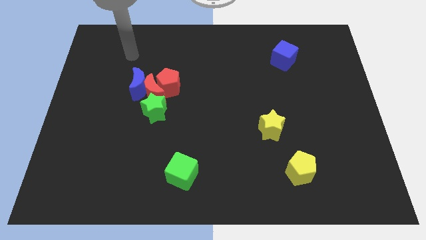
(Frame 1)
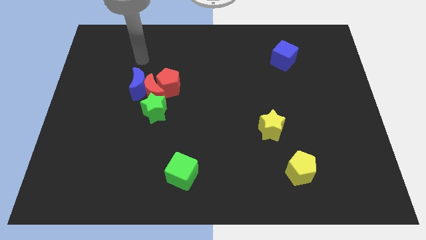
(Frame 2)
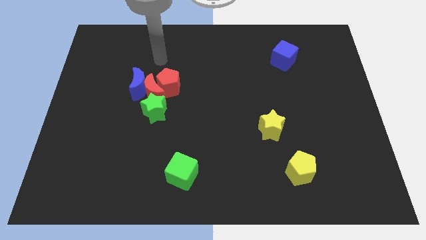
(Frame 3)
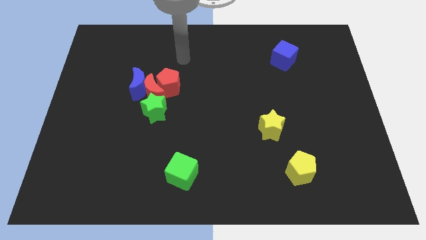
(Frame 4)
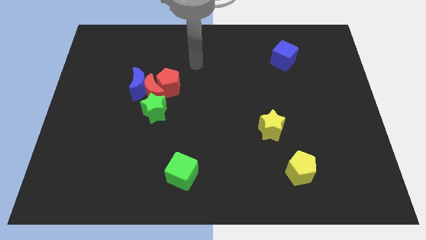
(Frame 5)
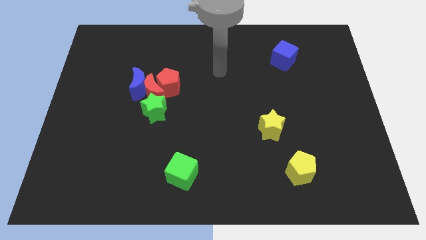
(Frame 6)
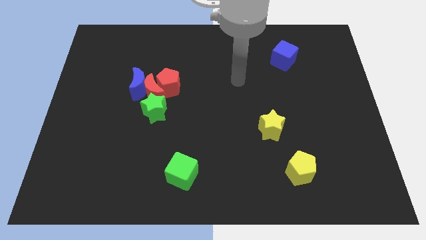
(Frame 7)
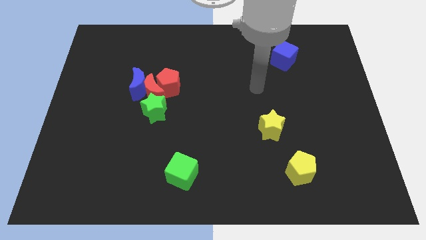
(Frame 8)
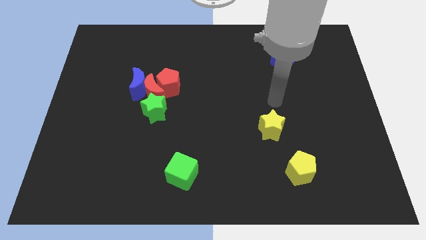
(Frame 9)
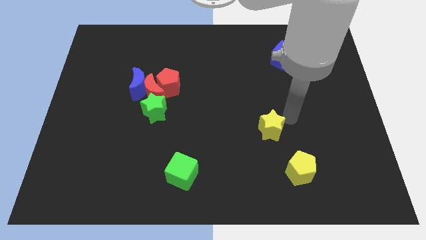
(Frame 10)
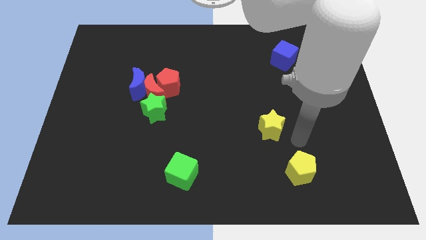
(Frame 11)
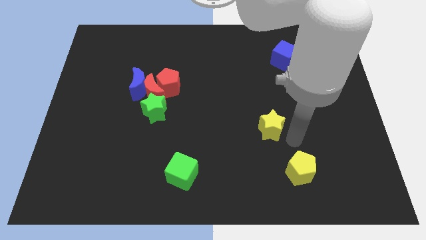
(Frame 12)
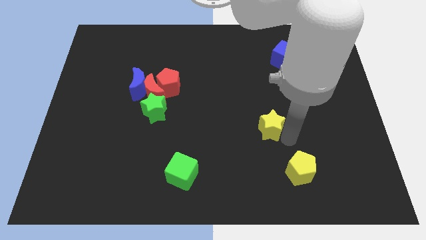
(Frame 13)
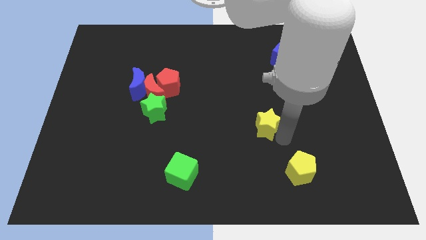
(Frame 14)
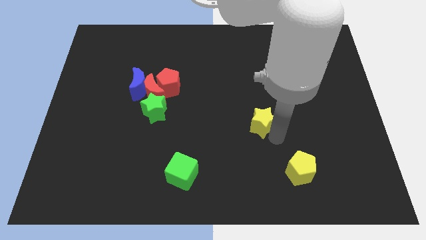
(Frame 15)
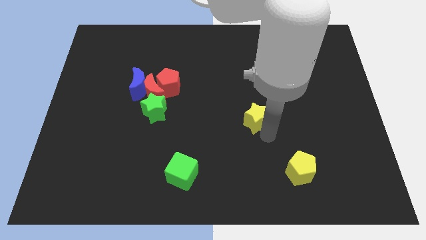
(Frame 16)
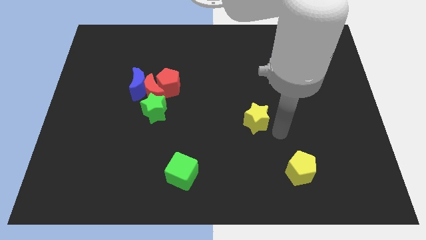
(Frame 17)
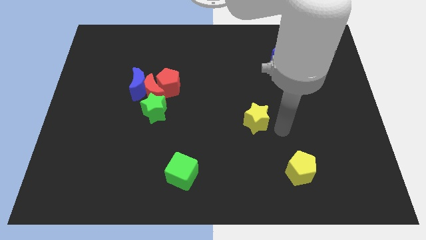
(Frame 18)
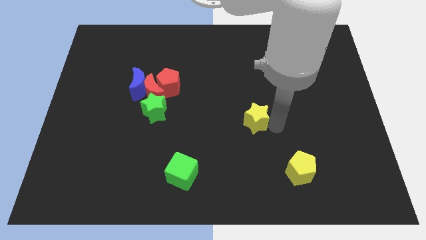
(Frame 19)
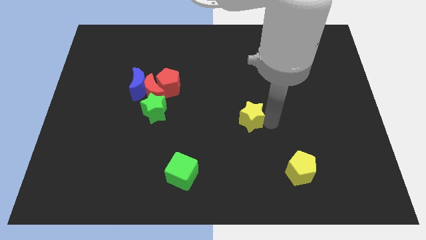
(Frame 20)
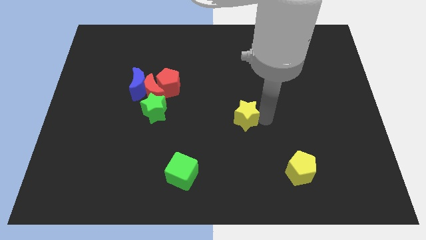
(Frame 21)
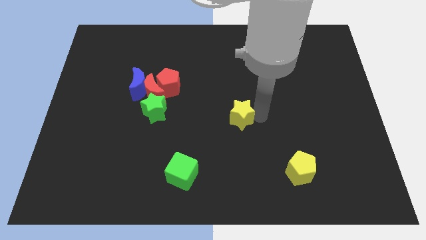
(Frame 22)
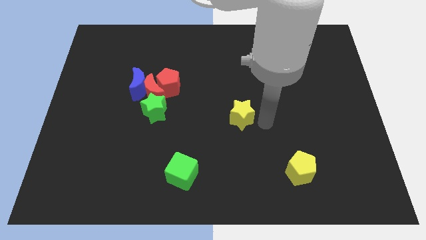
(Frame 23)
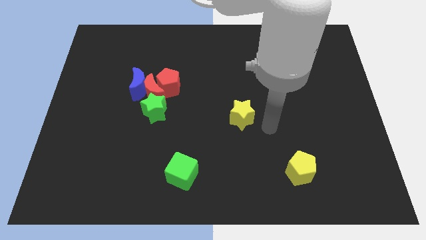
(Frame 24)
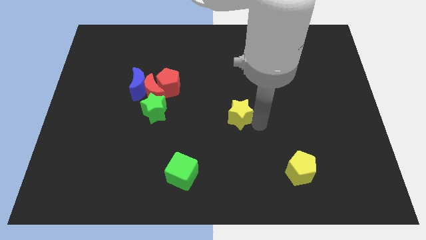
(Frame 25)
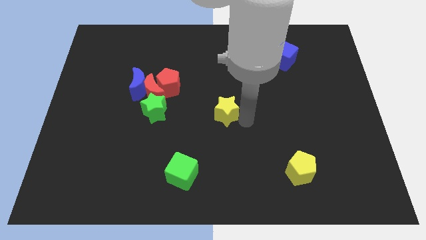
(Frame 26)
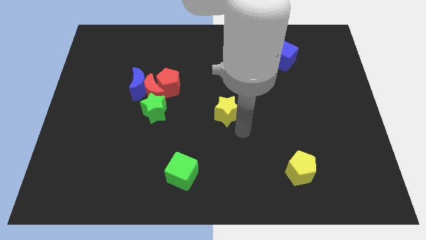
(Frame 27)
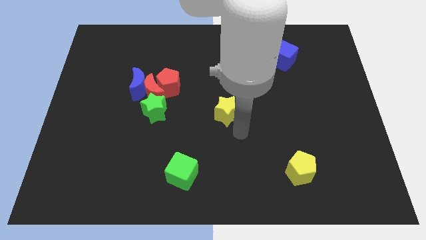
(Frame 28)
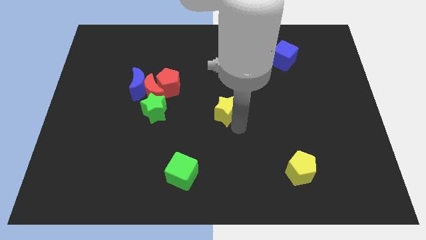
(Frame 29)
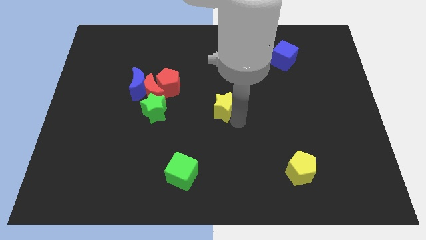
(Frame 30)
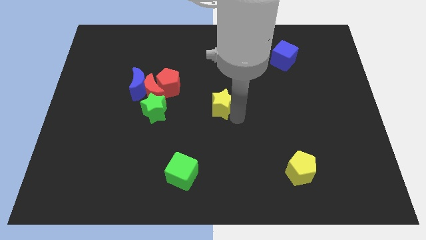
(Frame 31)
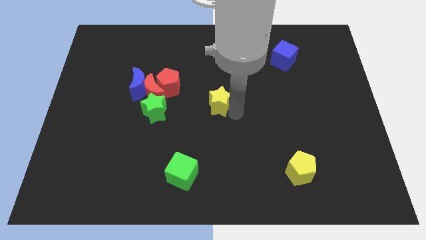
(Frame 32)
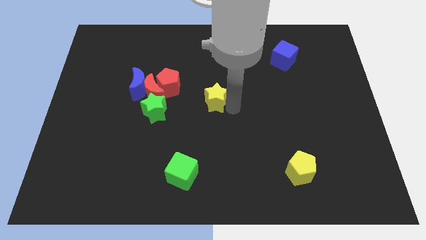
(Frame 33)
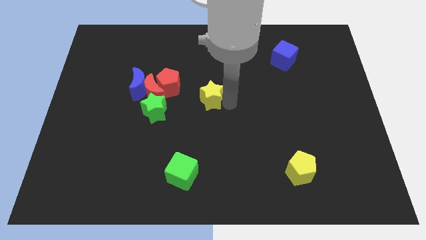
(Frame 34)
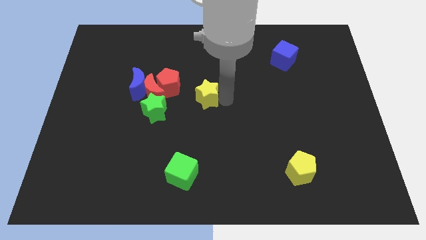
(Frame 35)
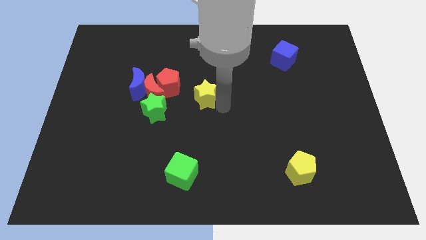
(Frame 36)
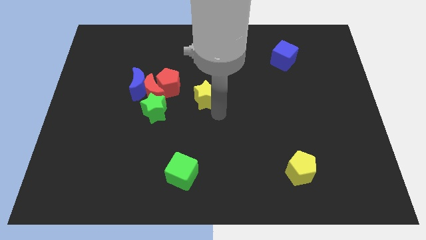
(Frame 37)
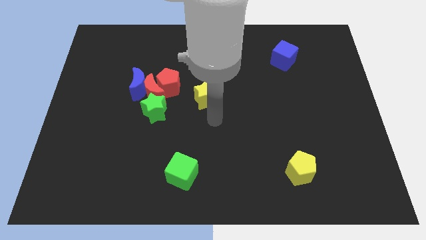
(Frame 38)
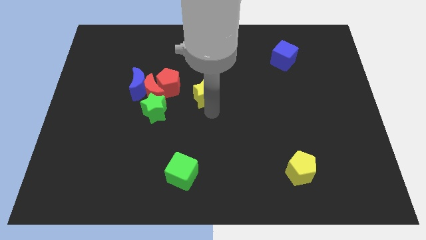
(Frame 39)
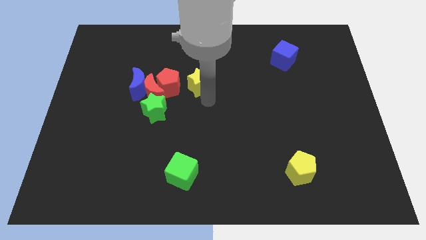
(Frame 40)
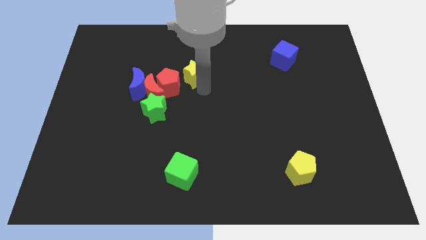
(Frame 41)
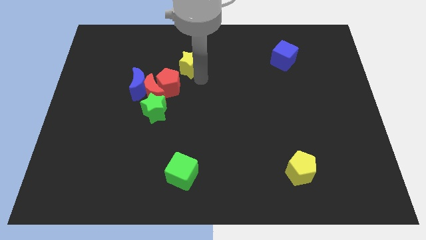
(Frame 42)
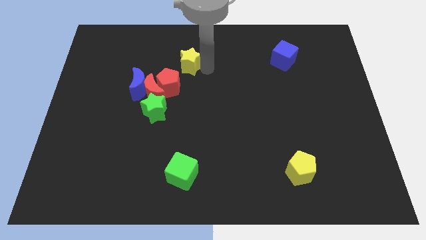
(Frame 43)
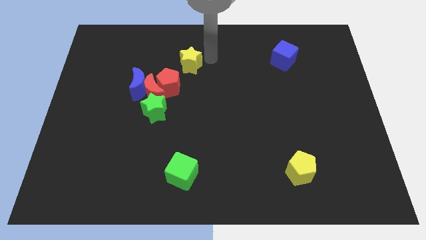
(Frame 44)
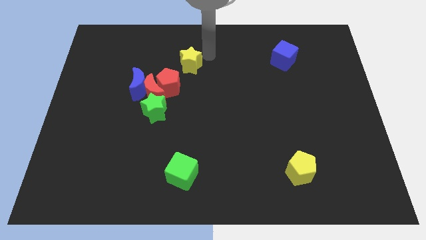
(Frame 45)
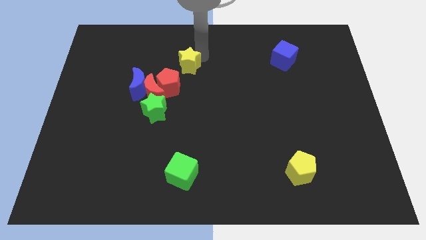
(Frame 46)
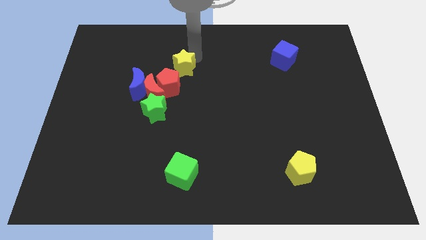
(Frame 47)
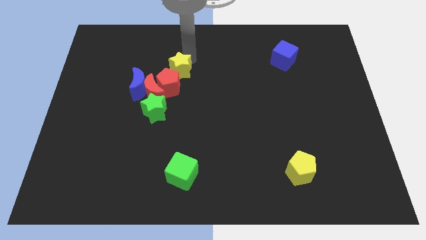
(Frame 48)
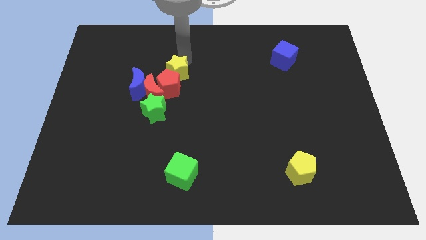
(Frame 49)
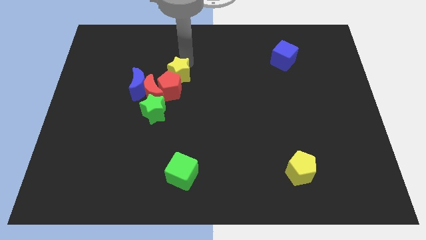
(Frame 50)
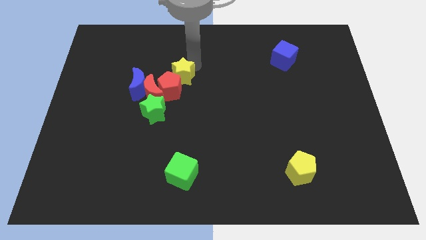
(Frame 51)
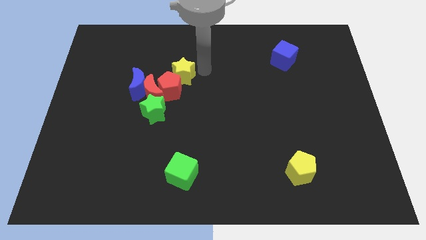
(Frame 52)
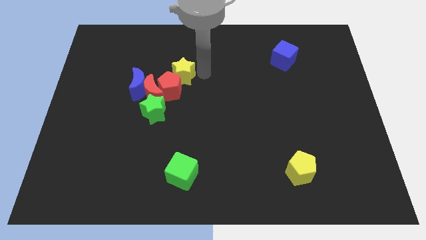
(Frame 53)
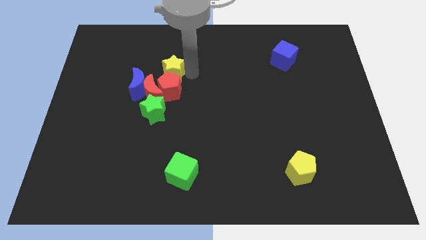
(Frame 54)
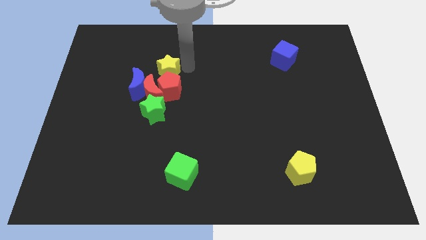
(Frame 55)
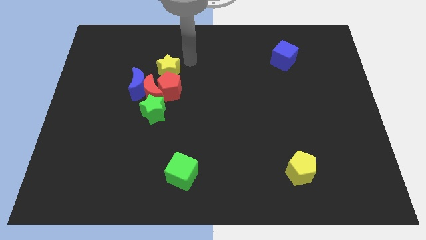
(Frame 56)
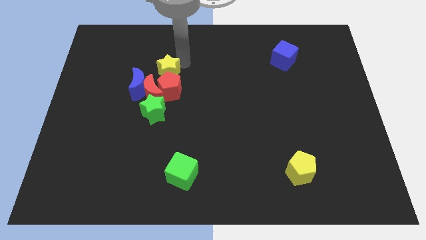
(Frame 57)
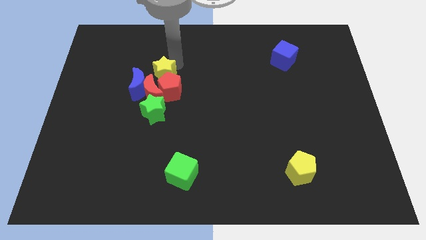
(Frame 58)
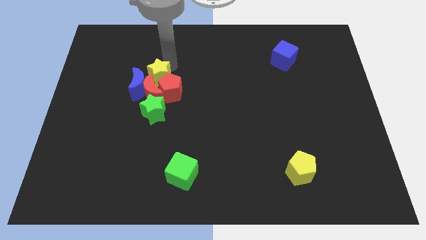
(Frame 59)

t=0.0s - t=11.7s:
slide the yellow star towards the blue moon

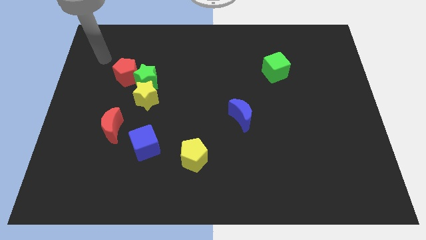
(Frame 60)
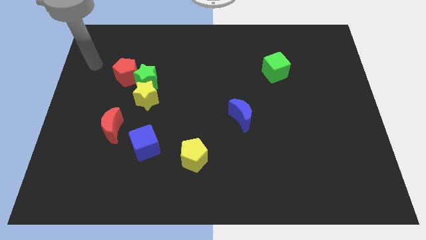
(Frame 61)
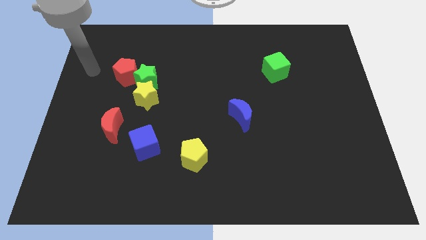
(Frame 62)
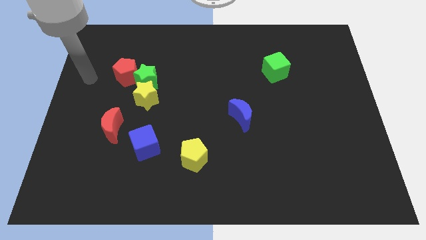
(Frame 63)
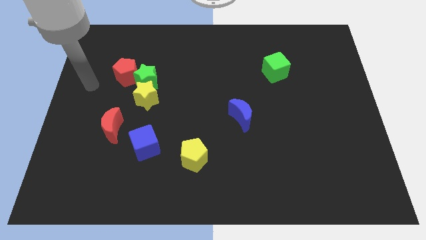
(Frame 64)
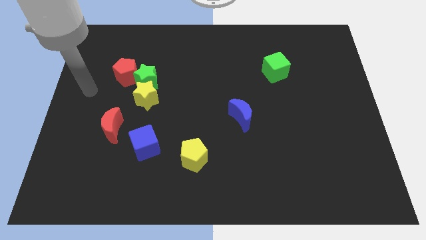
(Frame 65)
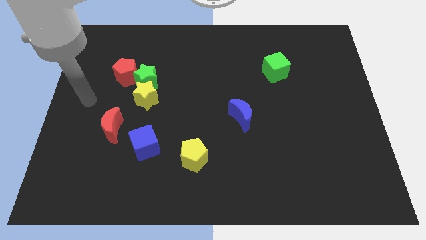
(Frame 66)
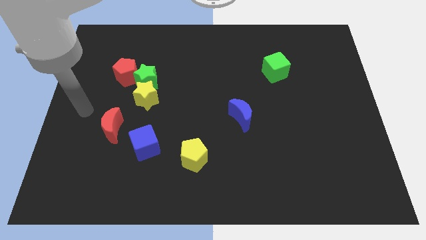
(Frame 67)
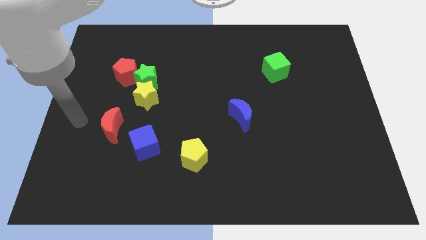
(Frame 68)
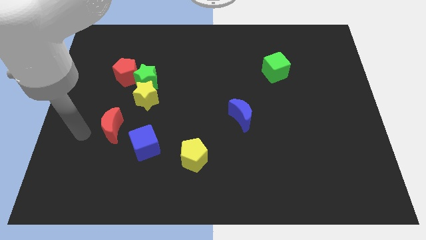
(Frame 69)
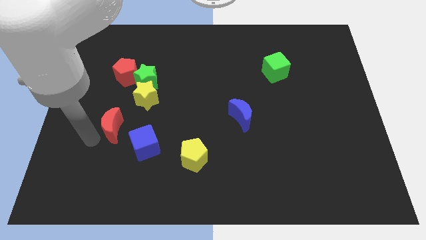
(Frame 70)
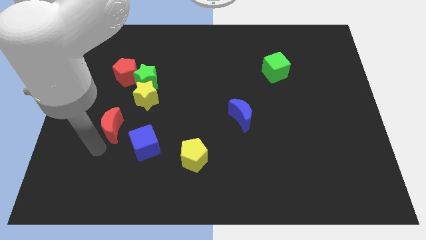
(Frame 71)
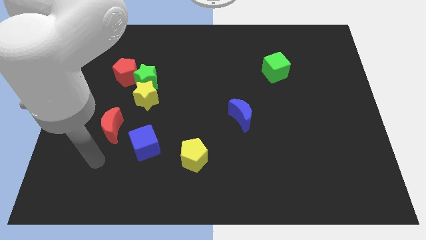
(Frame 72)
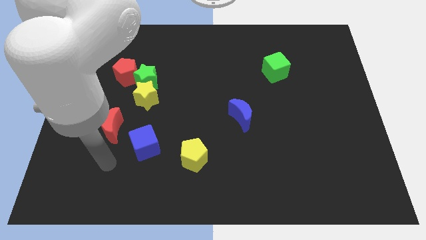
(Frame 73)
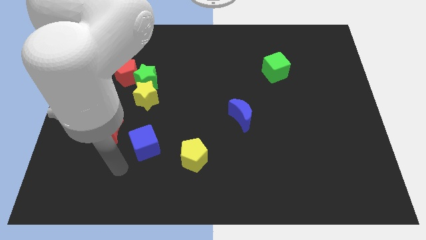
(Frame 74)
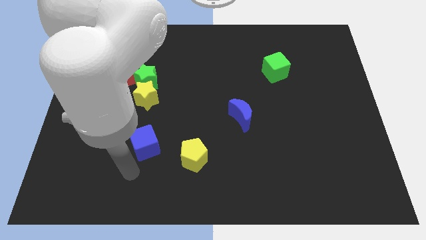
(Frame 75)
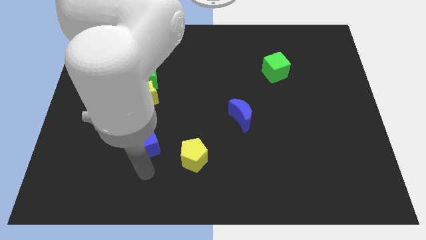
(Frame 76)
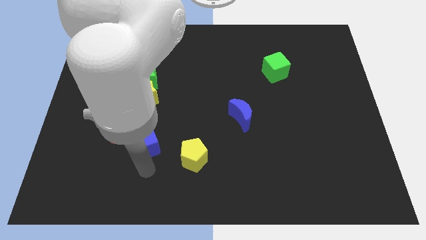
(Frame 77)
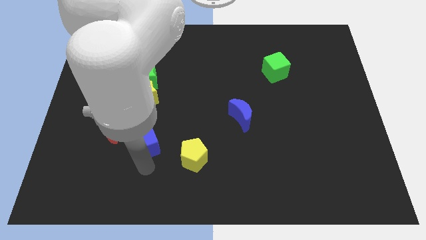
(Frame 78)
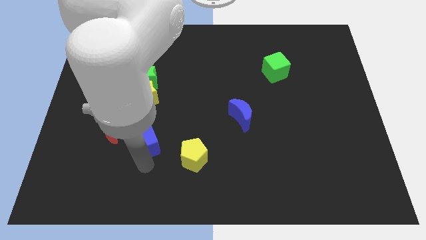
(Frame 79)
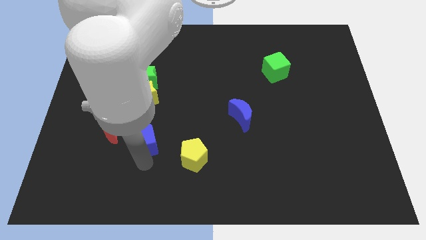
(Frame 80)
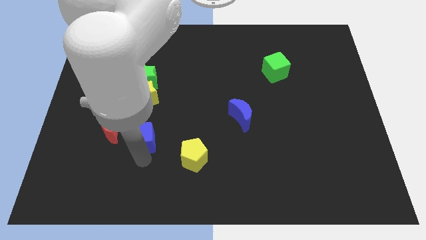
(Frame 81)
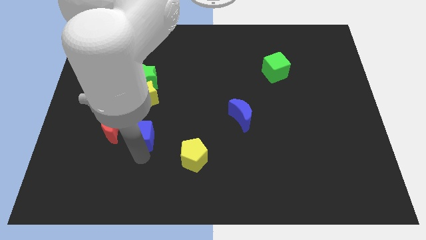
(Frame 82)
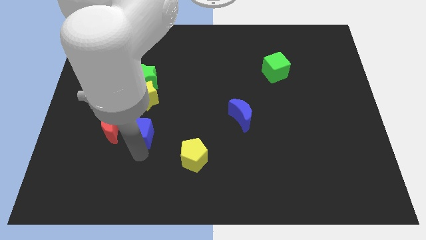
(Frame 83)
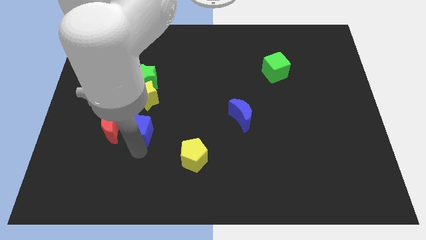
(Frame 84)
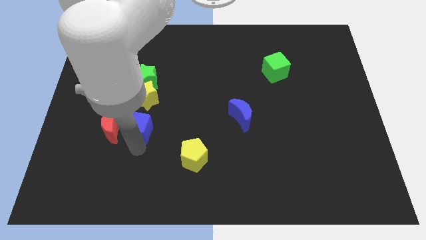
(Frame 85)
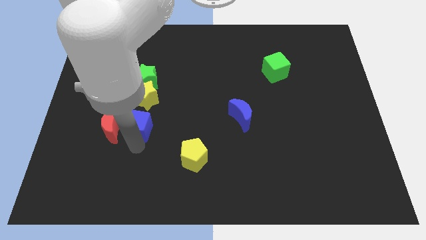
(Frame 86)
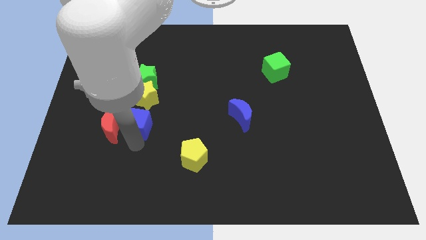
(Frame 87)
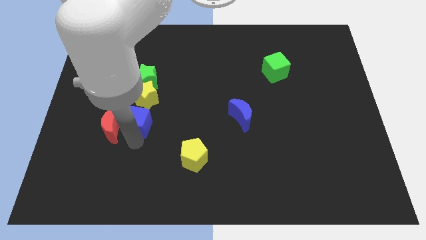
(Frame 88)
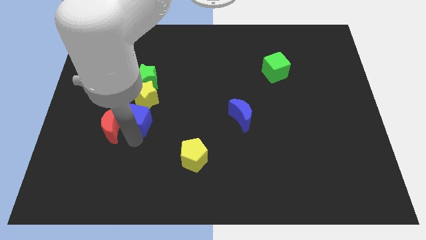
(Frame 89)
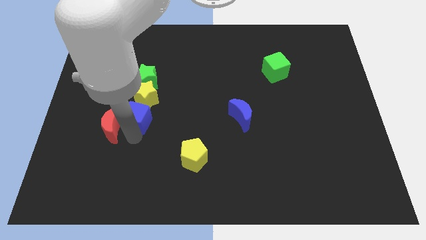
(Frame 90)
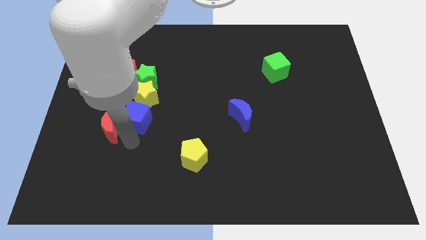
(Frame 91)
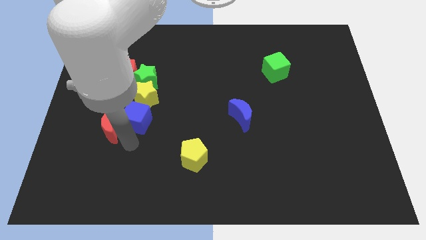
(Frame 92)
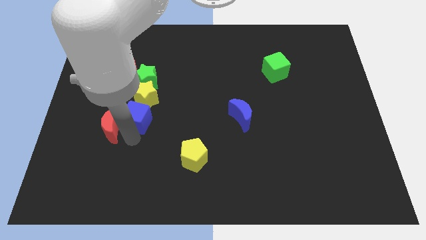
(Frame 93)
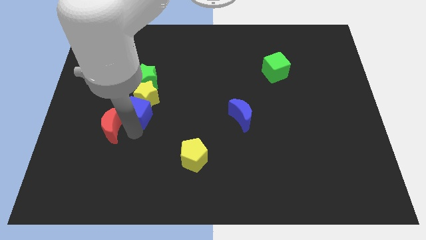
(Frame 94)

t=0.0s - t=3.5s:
move the blue cube close to the yellow star
